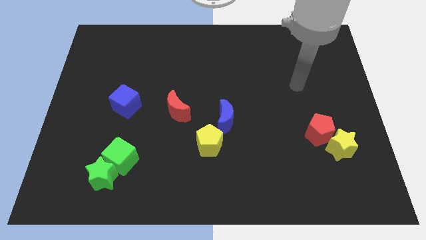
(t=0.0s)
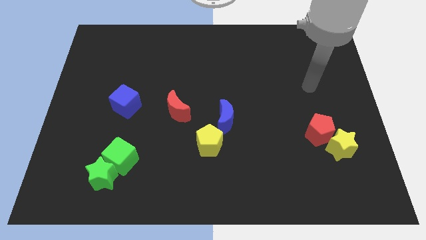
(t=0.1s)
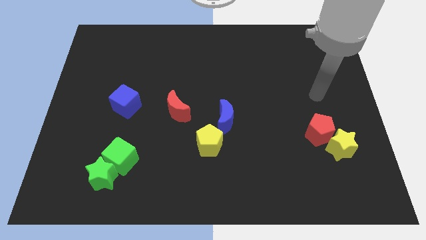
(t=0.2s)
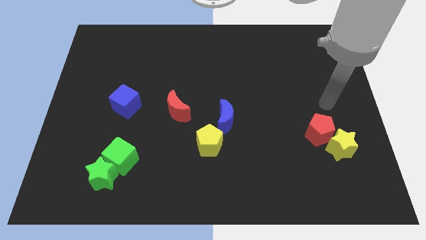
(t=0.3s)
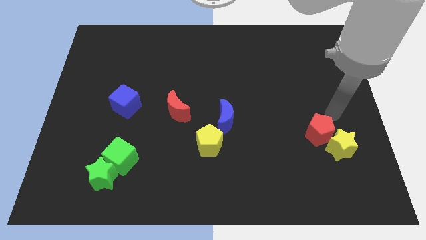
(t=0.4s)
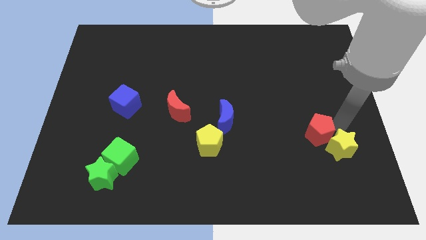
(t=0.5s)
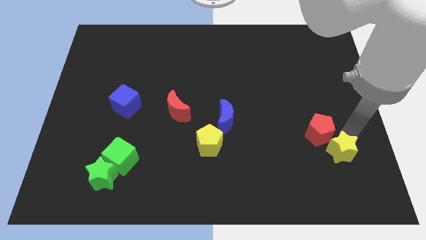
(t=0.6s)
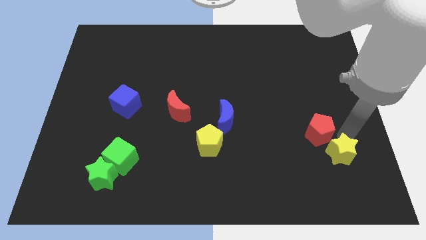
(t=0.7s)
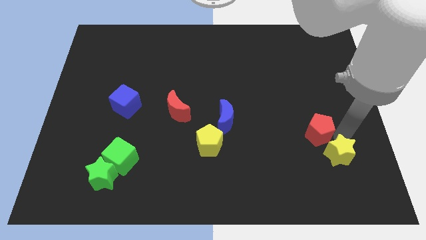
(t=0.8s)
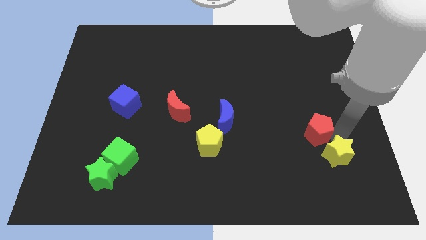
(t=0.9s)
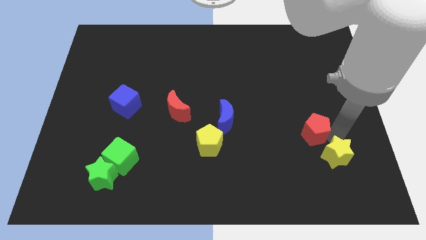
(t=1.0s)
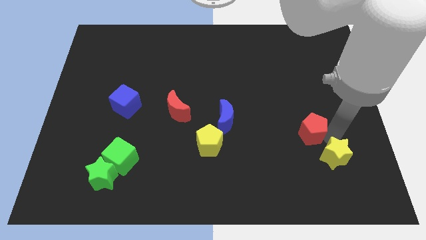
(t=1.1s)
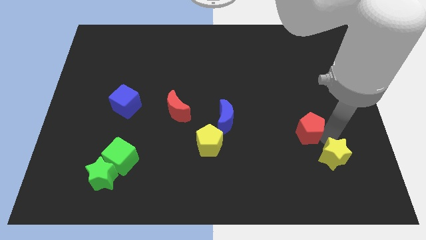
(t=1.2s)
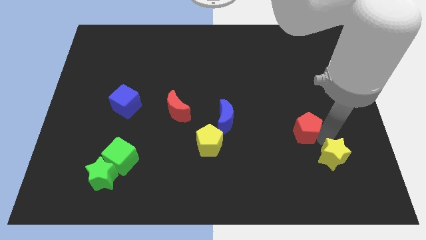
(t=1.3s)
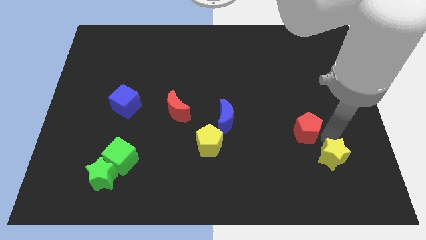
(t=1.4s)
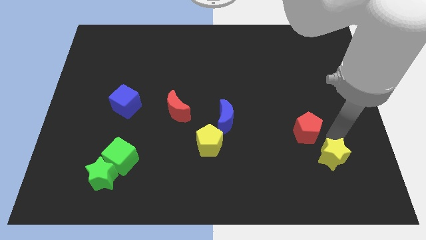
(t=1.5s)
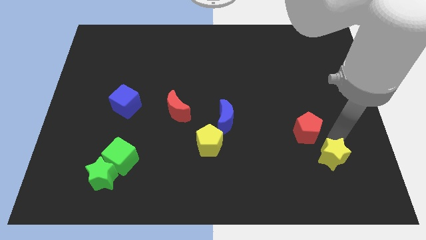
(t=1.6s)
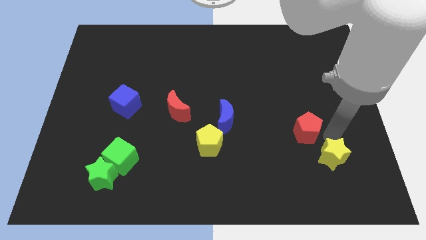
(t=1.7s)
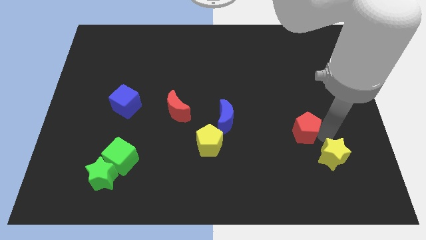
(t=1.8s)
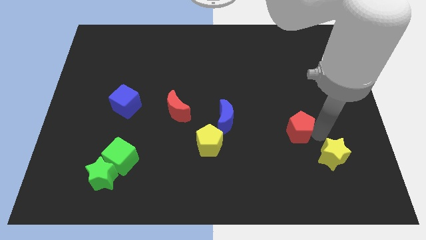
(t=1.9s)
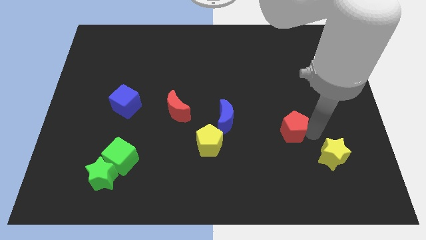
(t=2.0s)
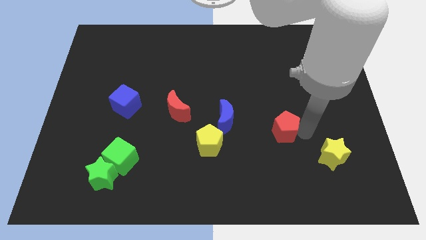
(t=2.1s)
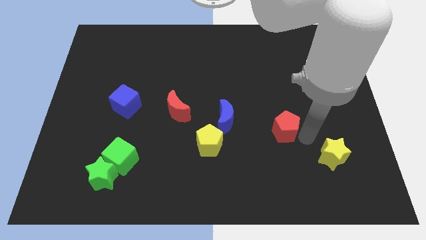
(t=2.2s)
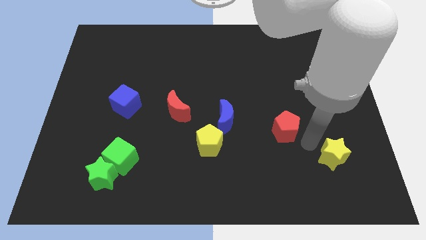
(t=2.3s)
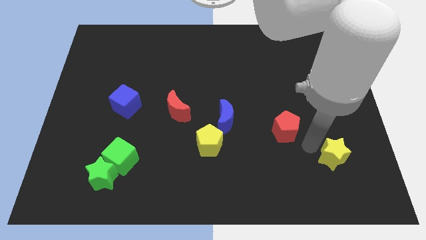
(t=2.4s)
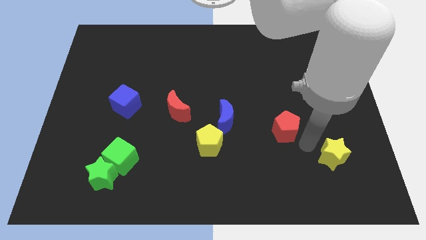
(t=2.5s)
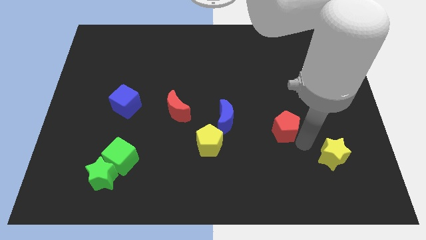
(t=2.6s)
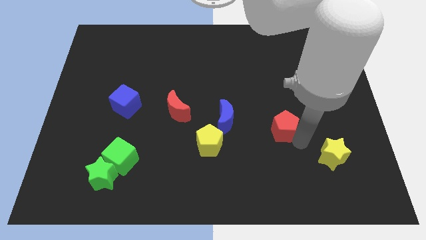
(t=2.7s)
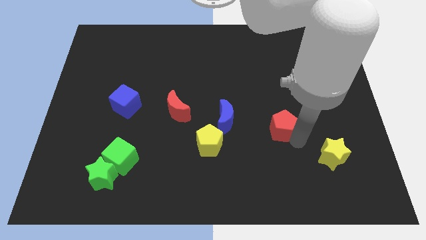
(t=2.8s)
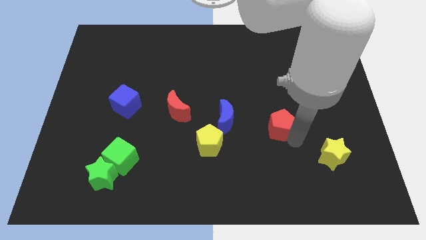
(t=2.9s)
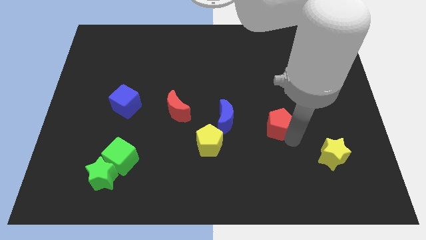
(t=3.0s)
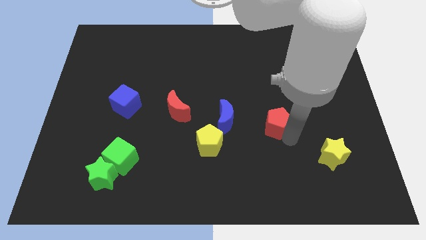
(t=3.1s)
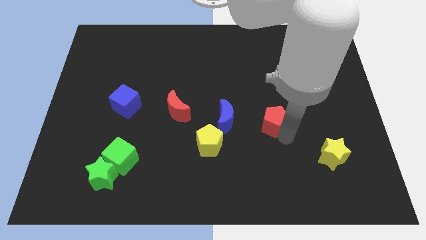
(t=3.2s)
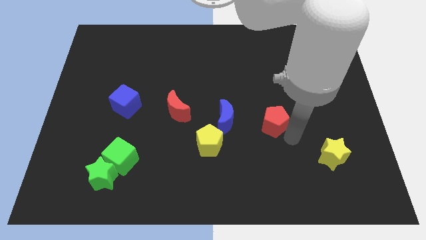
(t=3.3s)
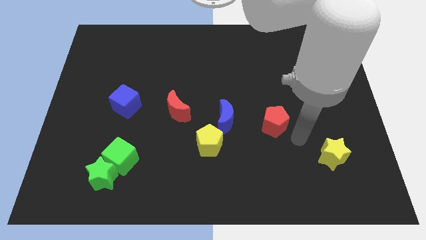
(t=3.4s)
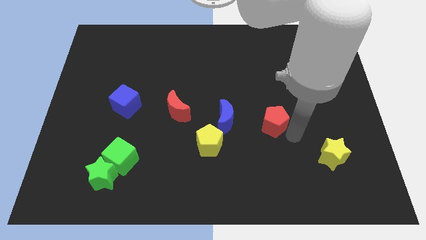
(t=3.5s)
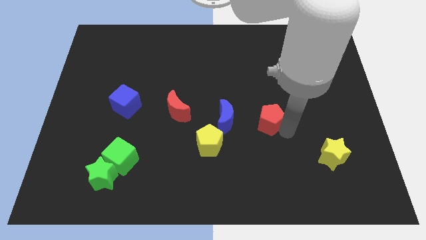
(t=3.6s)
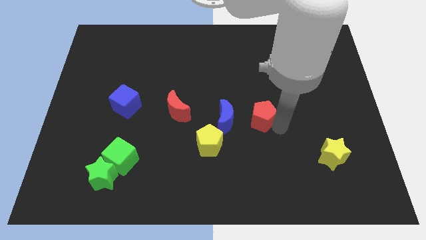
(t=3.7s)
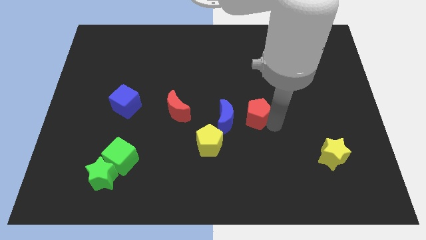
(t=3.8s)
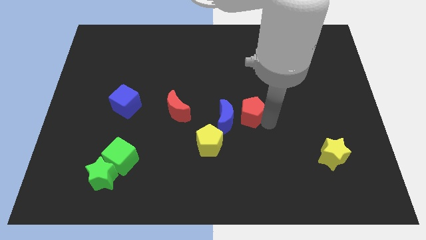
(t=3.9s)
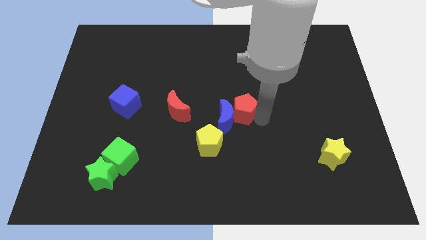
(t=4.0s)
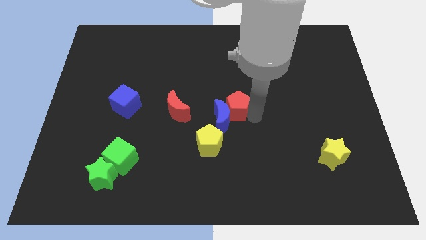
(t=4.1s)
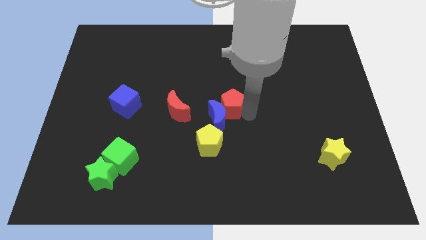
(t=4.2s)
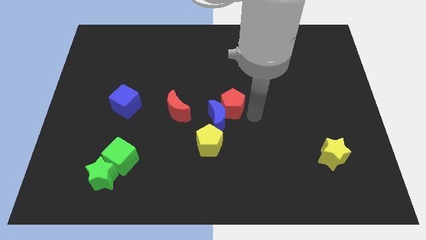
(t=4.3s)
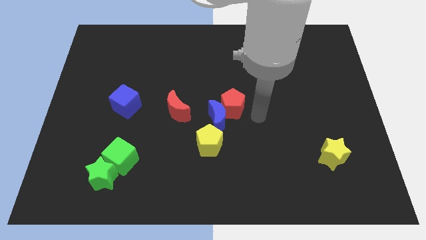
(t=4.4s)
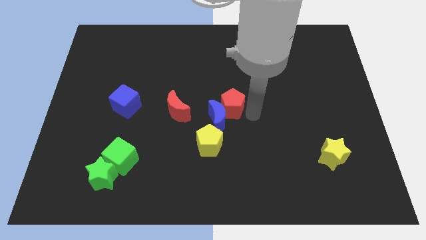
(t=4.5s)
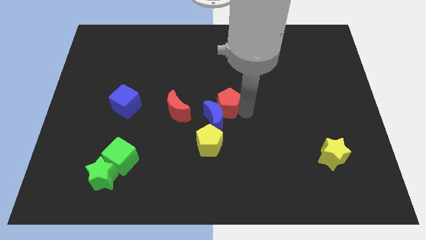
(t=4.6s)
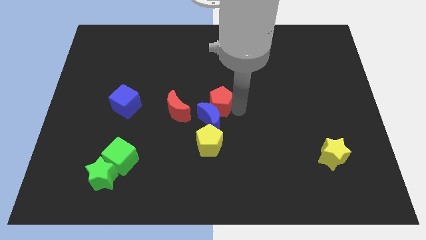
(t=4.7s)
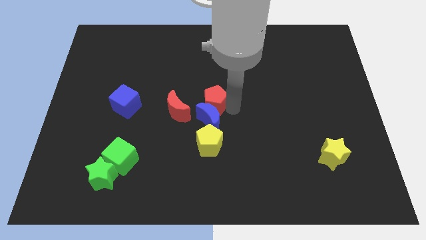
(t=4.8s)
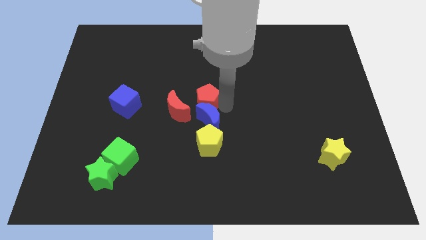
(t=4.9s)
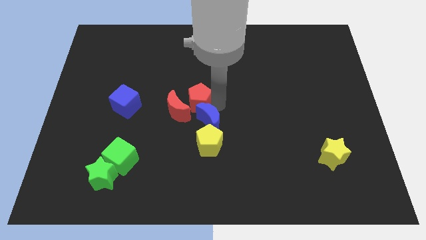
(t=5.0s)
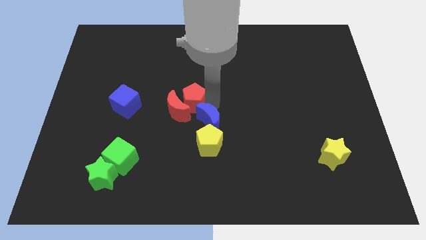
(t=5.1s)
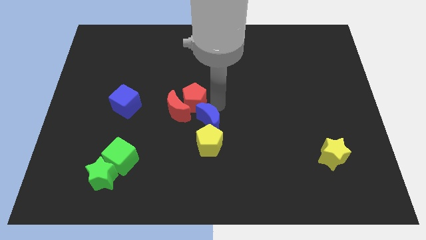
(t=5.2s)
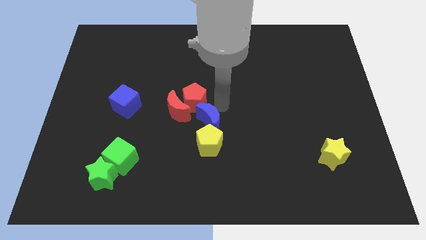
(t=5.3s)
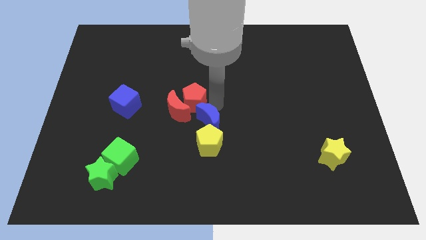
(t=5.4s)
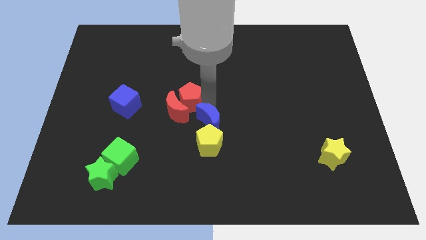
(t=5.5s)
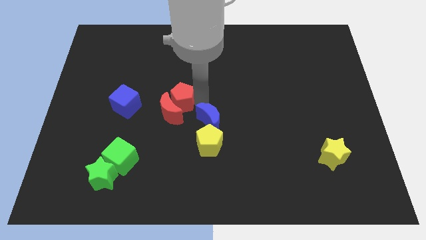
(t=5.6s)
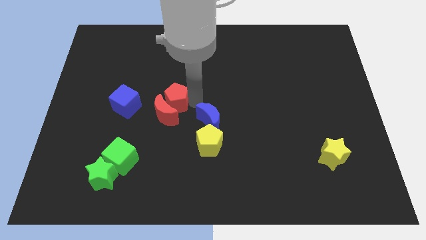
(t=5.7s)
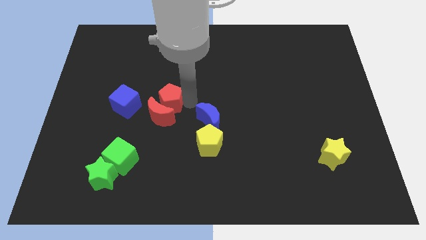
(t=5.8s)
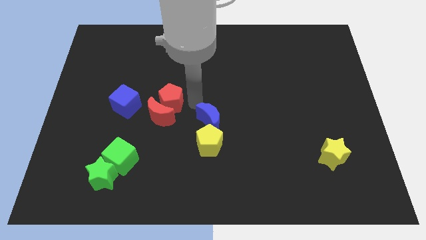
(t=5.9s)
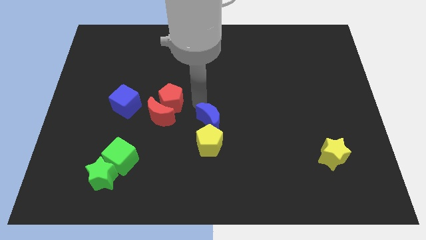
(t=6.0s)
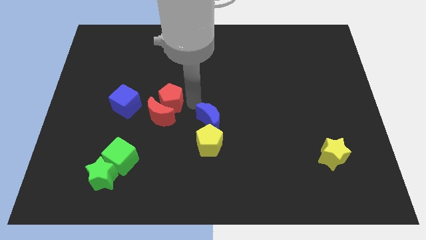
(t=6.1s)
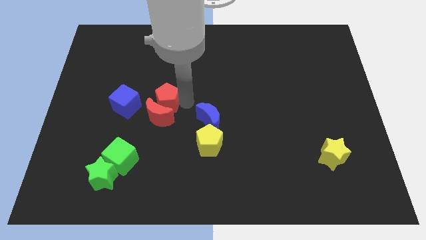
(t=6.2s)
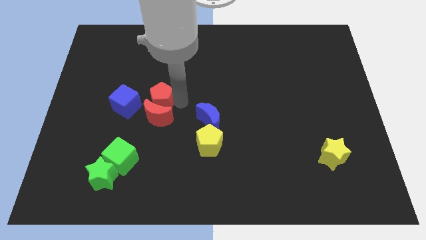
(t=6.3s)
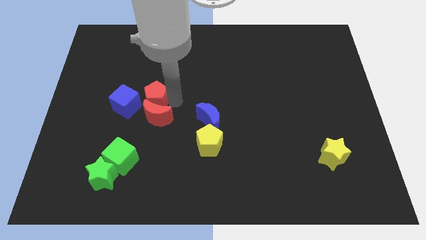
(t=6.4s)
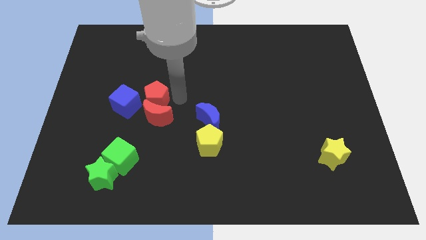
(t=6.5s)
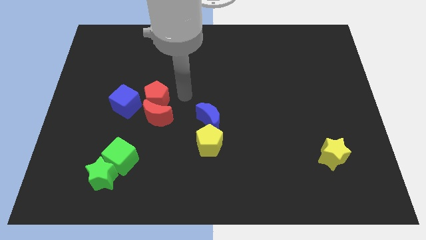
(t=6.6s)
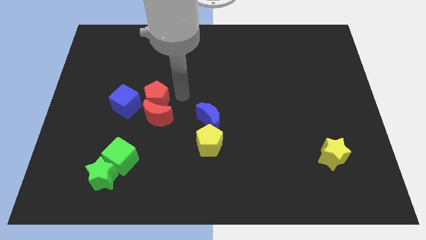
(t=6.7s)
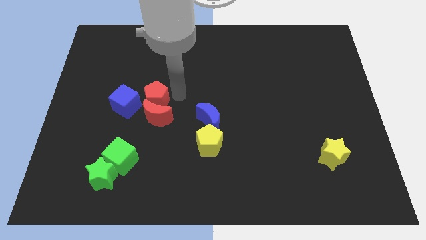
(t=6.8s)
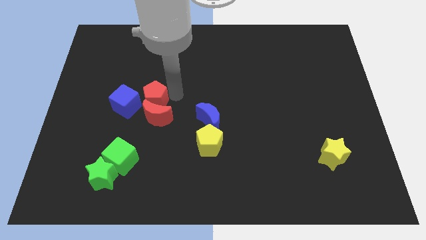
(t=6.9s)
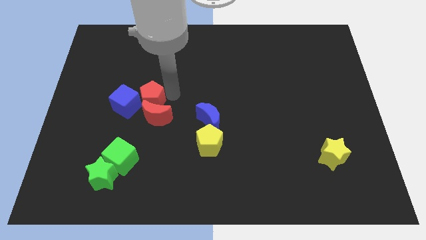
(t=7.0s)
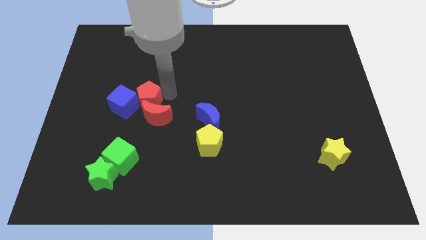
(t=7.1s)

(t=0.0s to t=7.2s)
slide the red pentagon towards the blue cube

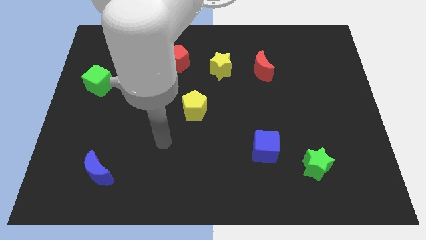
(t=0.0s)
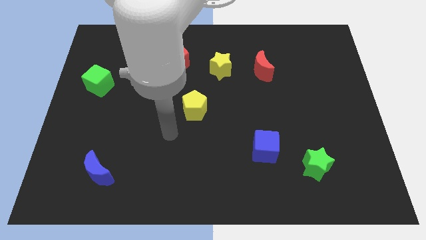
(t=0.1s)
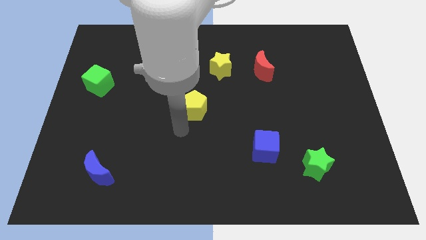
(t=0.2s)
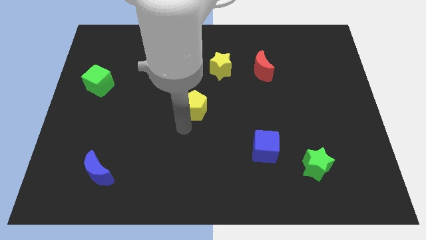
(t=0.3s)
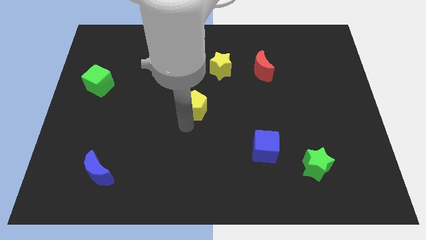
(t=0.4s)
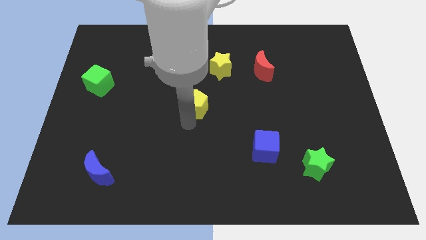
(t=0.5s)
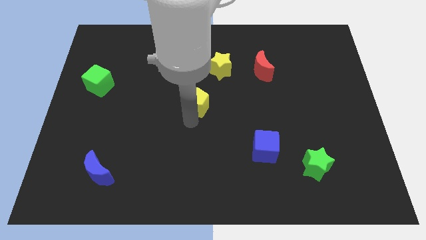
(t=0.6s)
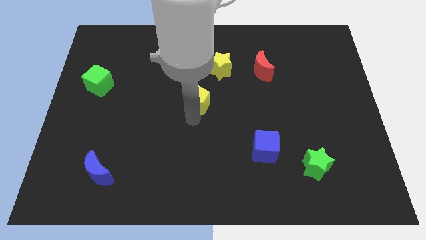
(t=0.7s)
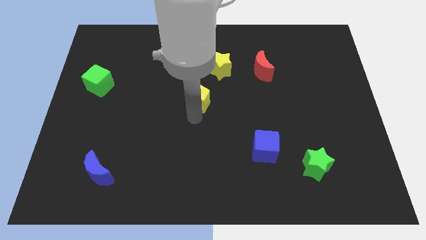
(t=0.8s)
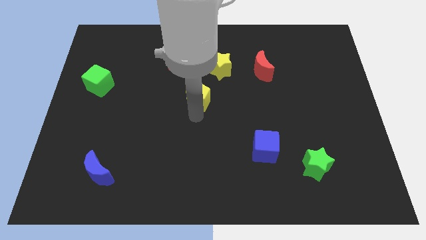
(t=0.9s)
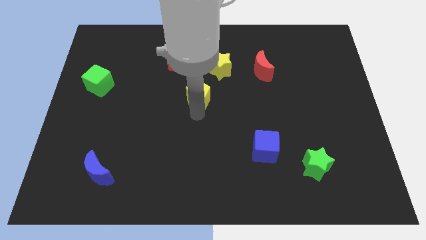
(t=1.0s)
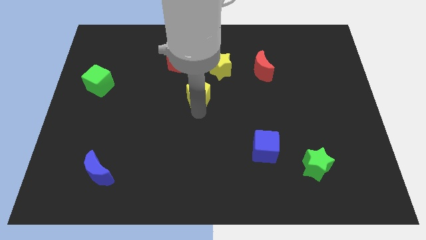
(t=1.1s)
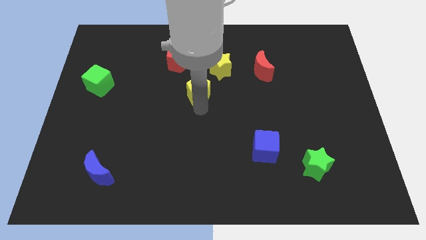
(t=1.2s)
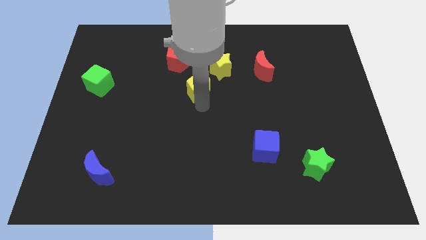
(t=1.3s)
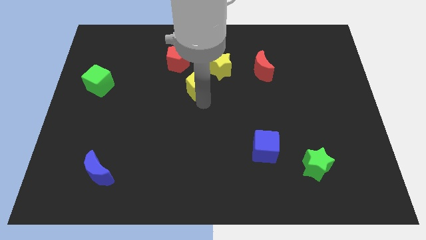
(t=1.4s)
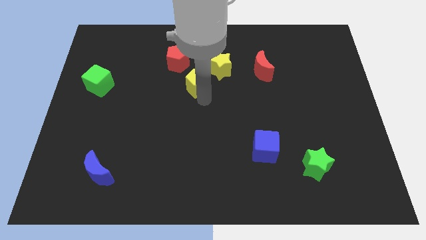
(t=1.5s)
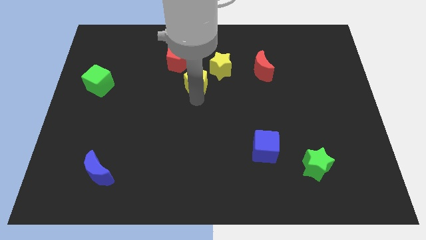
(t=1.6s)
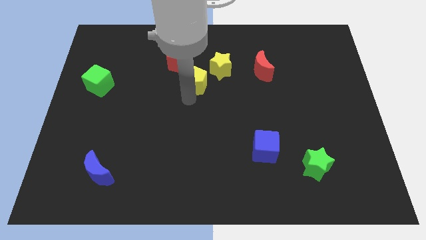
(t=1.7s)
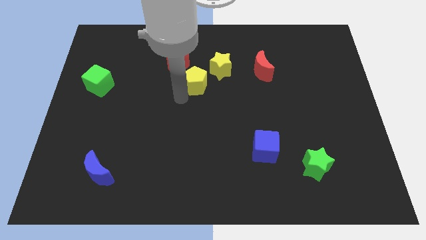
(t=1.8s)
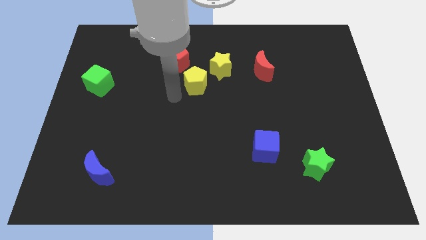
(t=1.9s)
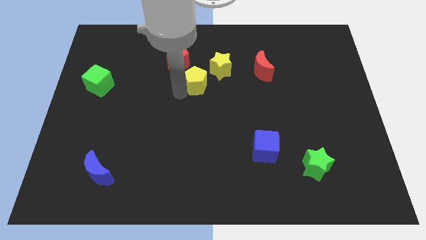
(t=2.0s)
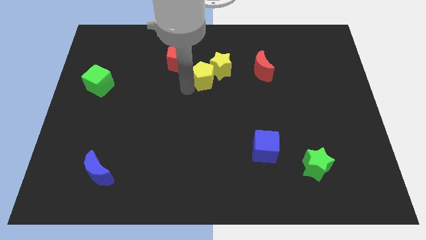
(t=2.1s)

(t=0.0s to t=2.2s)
move the yellow pentagon next to the yellow star
